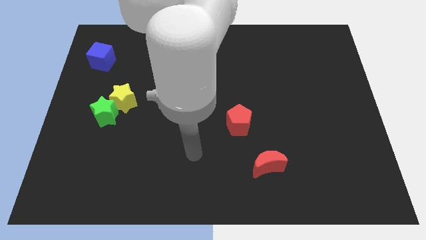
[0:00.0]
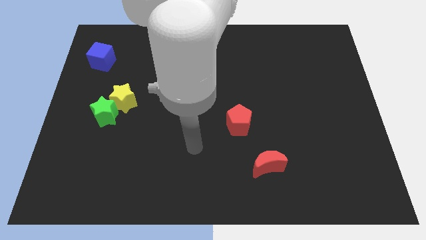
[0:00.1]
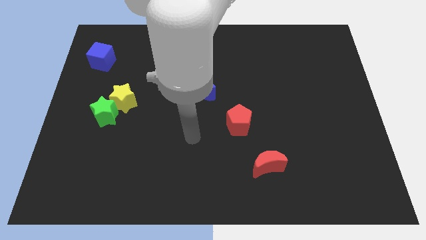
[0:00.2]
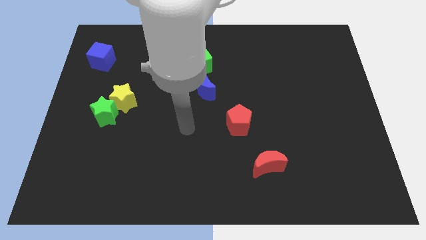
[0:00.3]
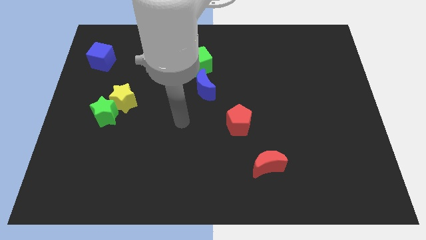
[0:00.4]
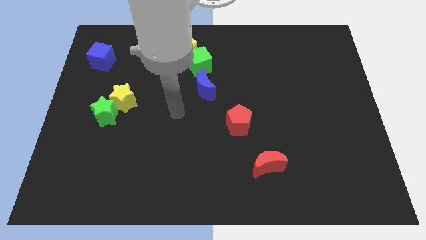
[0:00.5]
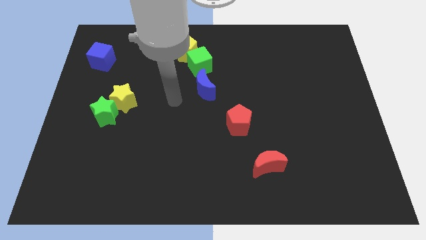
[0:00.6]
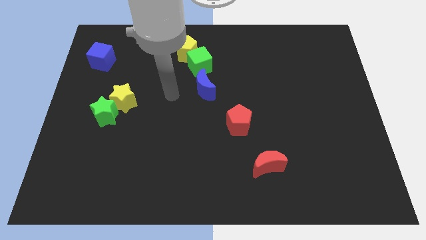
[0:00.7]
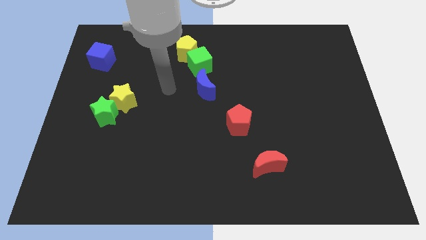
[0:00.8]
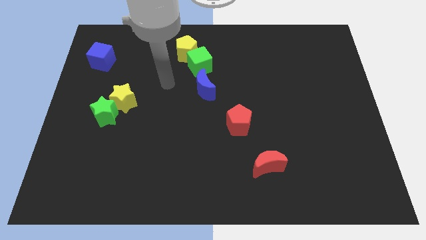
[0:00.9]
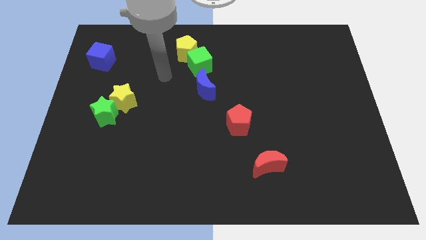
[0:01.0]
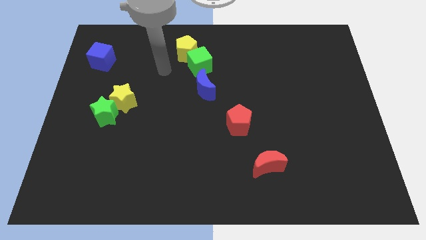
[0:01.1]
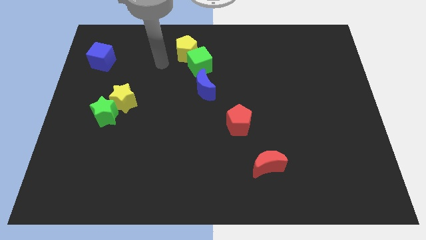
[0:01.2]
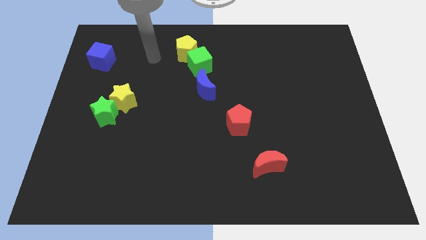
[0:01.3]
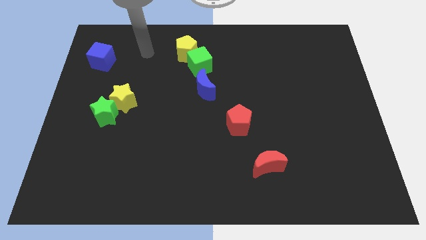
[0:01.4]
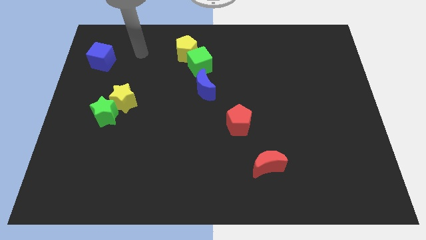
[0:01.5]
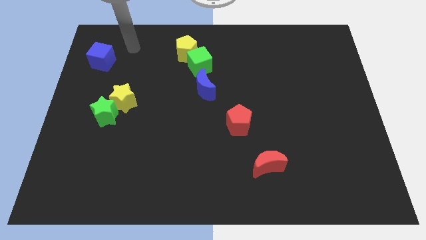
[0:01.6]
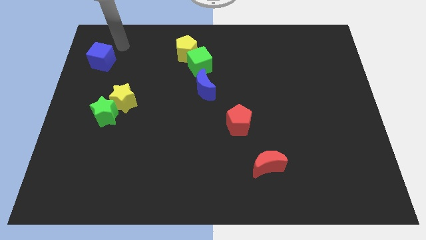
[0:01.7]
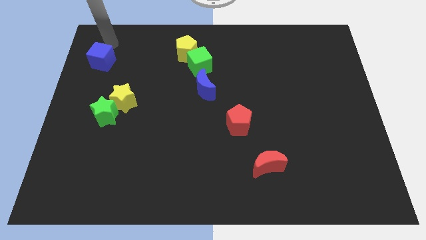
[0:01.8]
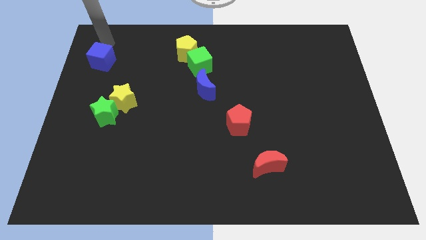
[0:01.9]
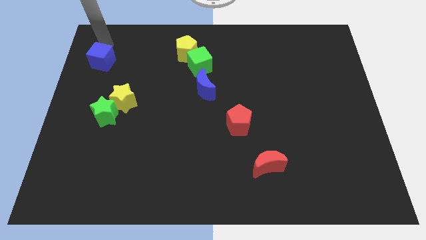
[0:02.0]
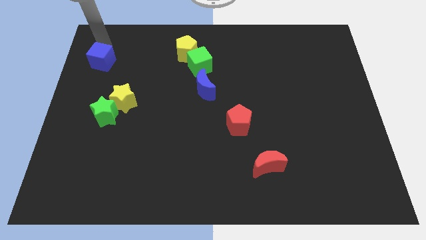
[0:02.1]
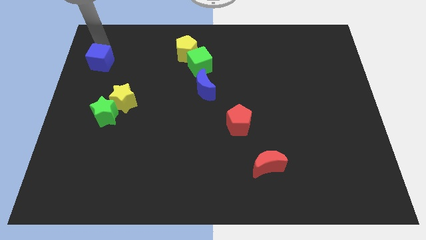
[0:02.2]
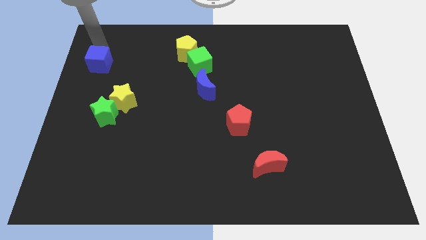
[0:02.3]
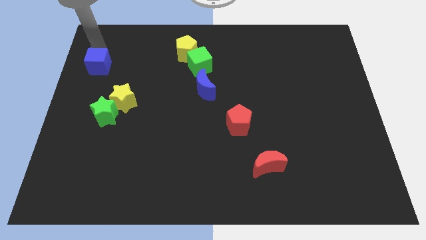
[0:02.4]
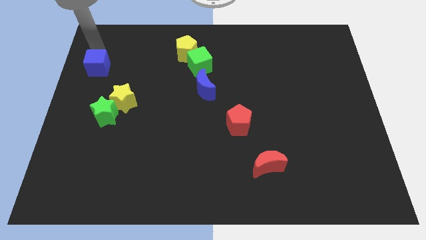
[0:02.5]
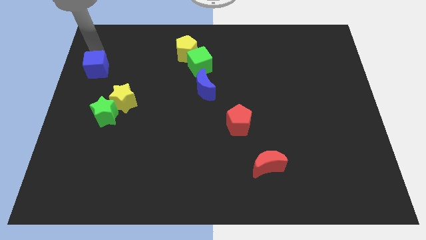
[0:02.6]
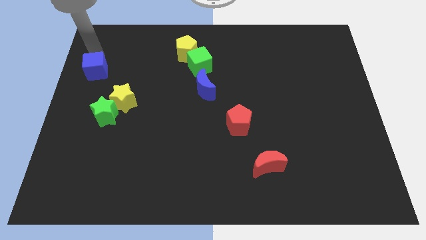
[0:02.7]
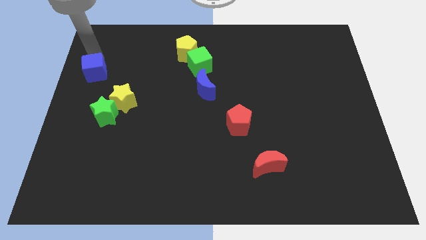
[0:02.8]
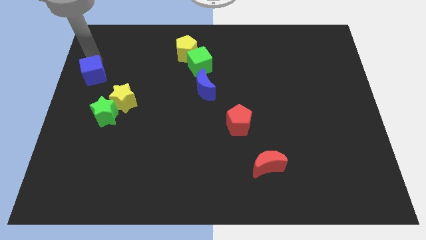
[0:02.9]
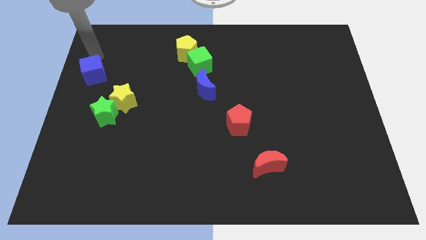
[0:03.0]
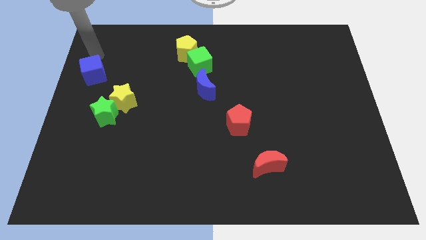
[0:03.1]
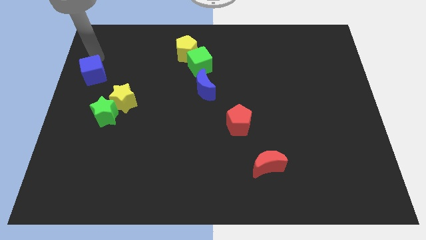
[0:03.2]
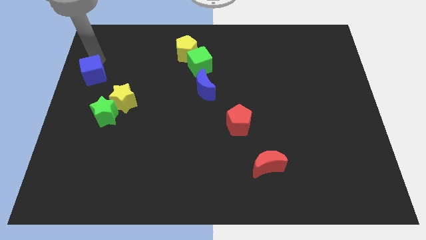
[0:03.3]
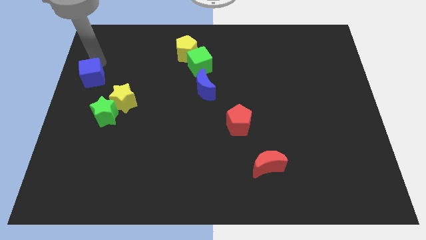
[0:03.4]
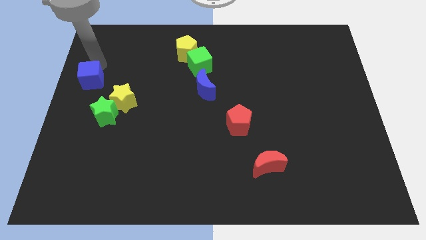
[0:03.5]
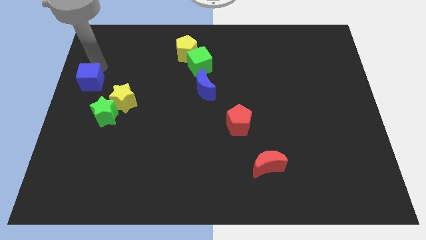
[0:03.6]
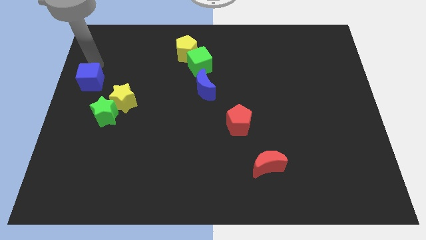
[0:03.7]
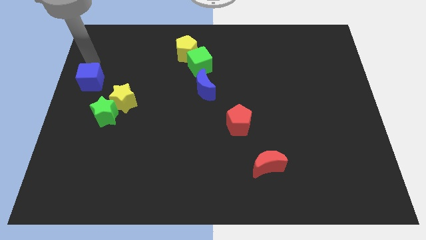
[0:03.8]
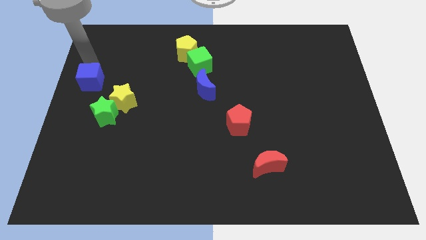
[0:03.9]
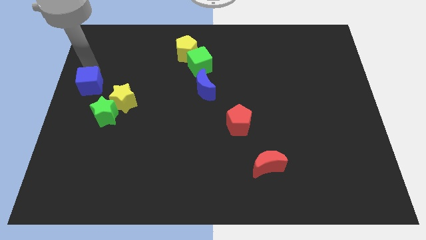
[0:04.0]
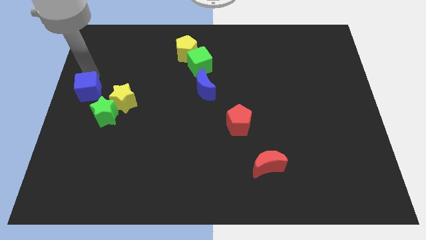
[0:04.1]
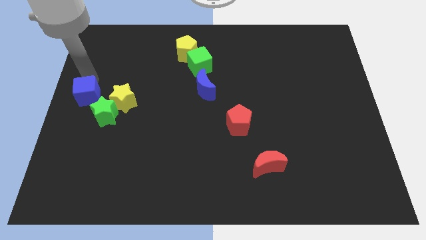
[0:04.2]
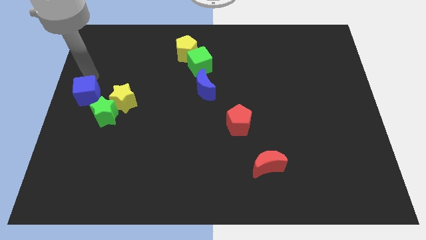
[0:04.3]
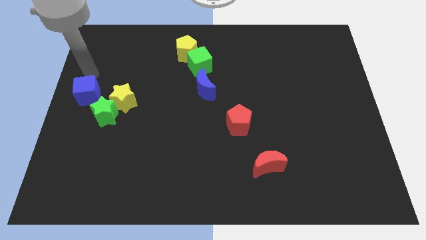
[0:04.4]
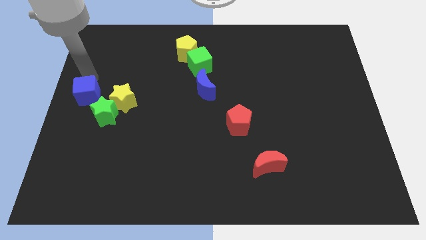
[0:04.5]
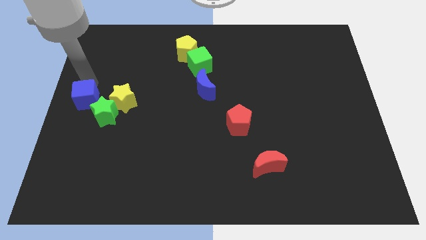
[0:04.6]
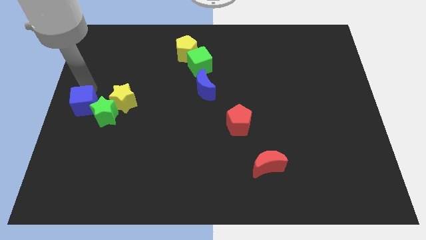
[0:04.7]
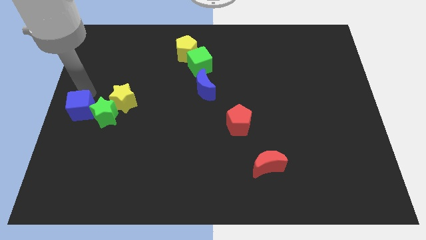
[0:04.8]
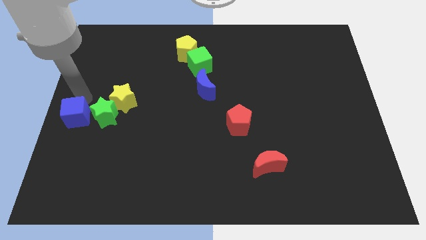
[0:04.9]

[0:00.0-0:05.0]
put the blue cube diagonally down and to the left of the yellow star

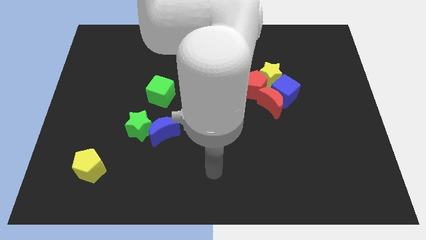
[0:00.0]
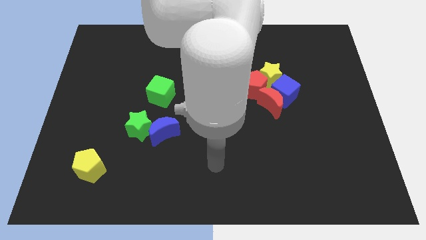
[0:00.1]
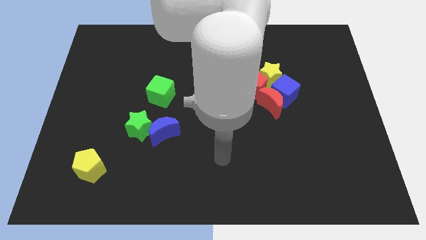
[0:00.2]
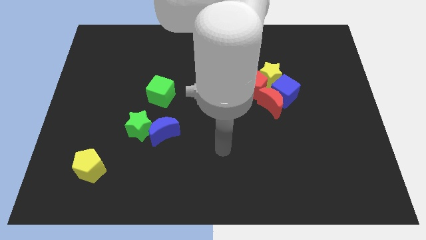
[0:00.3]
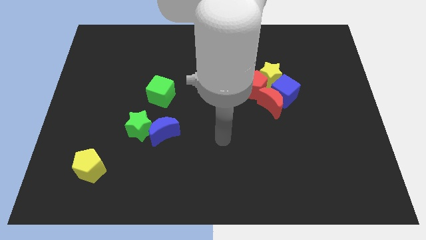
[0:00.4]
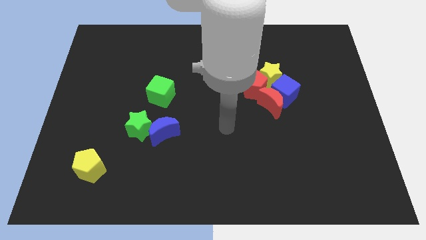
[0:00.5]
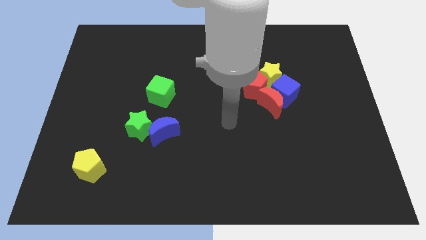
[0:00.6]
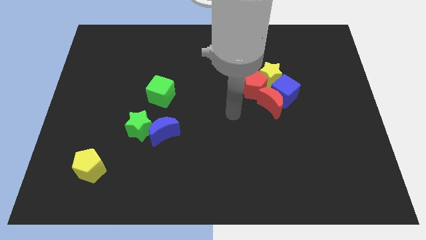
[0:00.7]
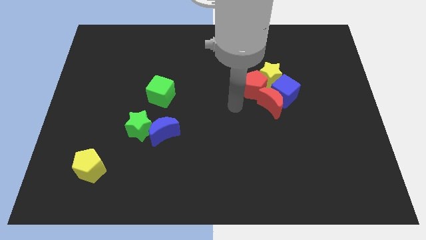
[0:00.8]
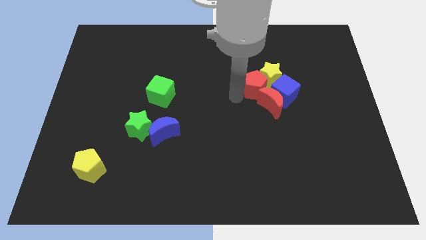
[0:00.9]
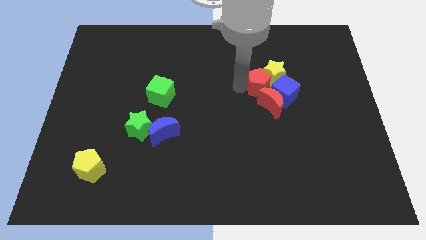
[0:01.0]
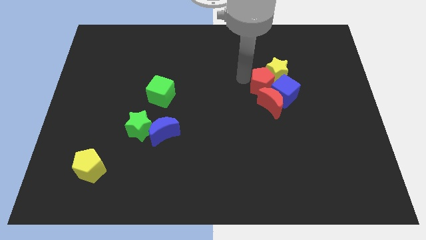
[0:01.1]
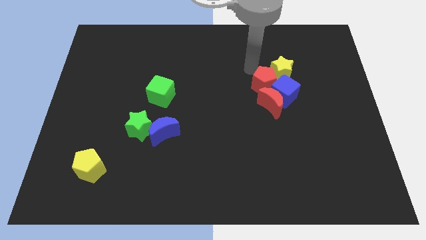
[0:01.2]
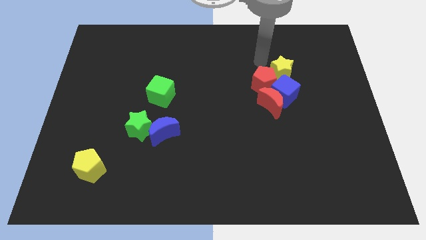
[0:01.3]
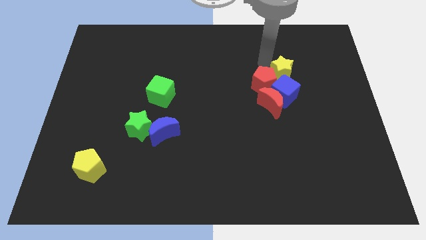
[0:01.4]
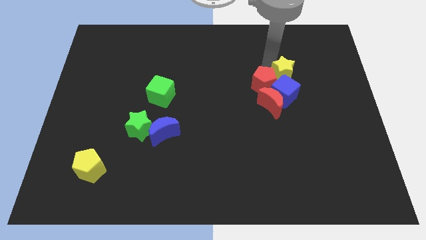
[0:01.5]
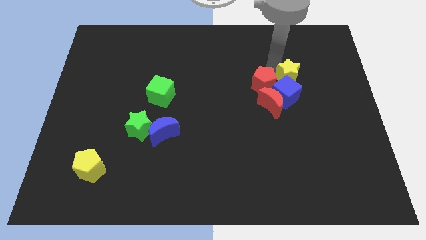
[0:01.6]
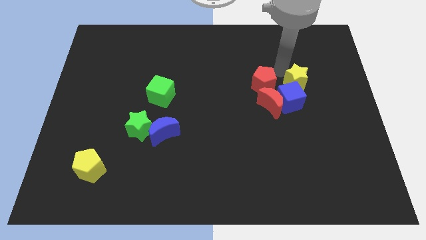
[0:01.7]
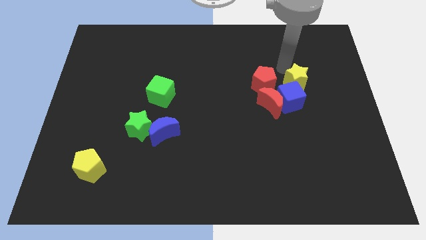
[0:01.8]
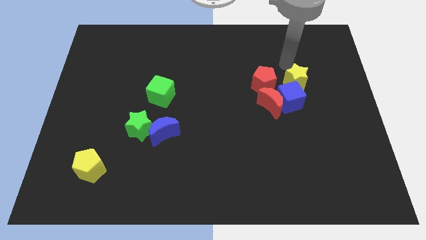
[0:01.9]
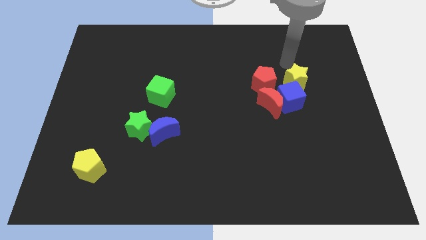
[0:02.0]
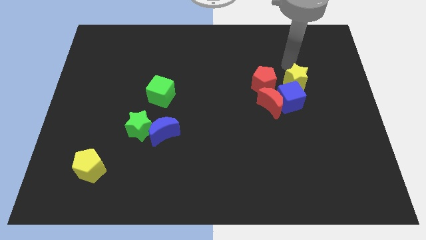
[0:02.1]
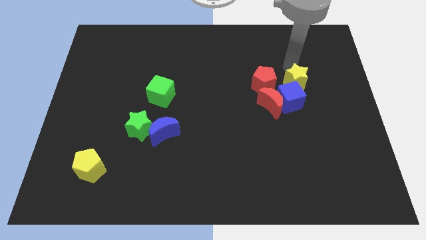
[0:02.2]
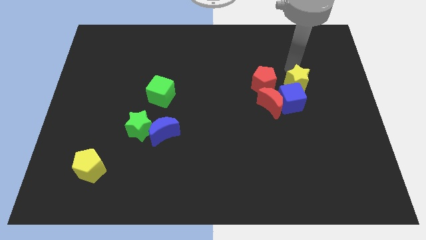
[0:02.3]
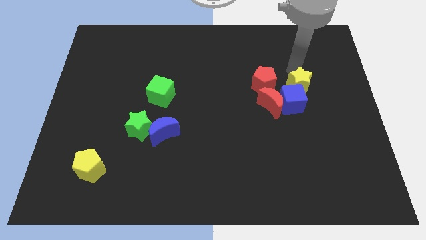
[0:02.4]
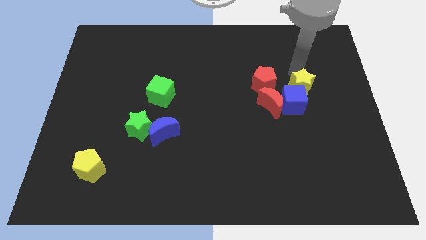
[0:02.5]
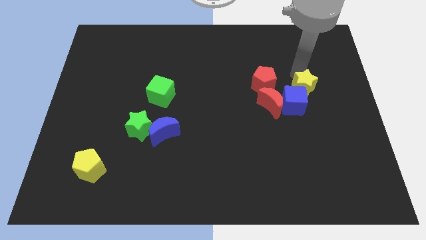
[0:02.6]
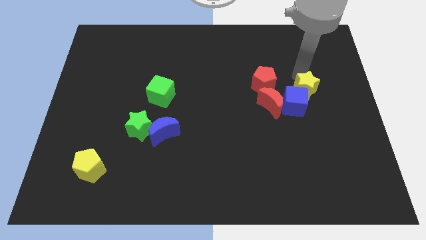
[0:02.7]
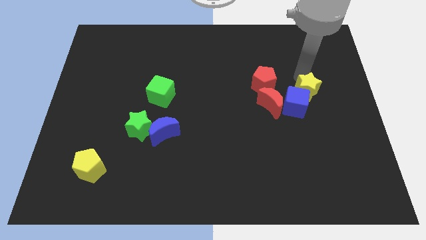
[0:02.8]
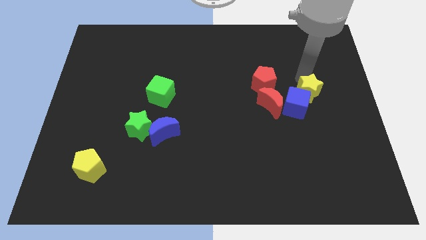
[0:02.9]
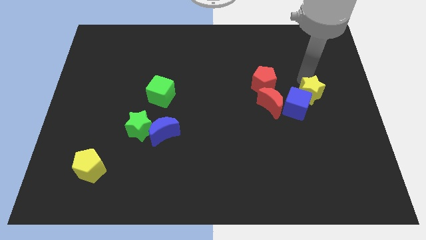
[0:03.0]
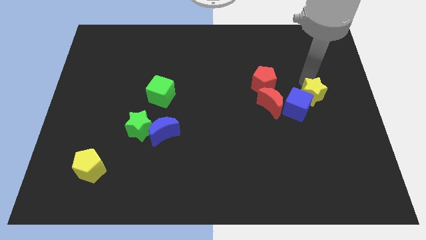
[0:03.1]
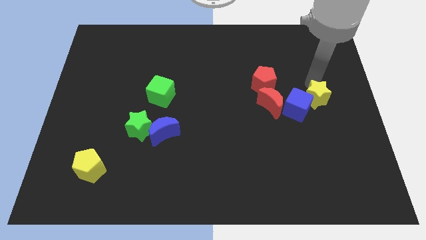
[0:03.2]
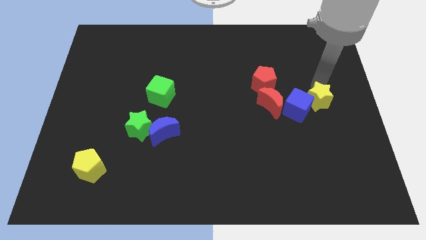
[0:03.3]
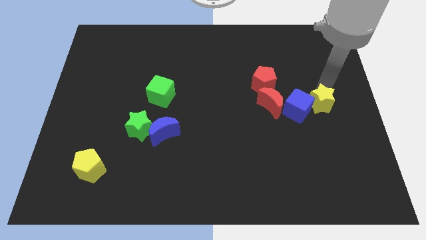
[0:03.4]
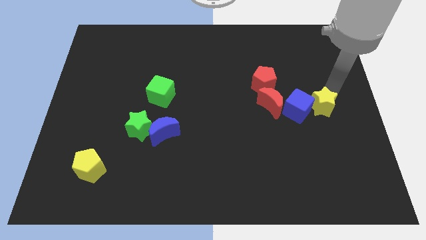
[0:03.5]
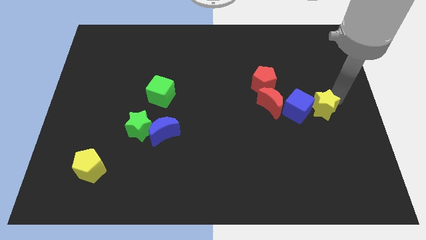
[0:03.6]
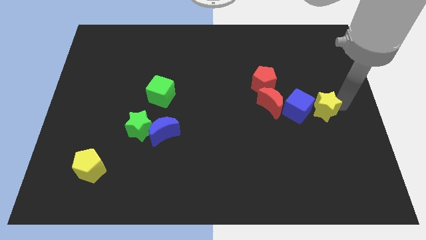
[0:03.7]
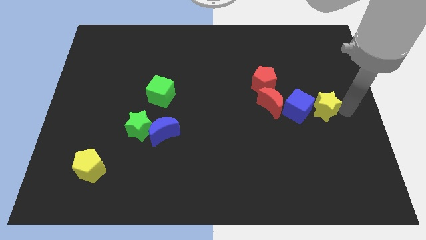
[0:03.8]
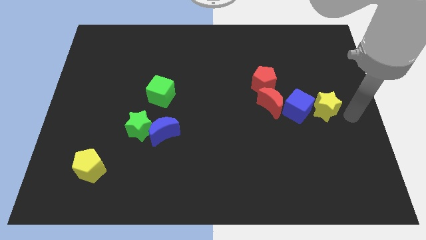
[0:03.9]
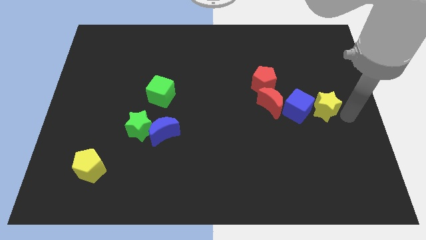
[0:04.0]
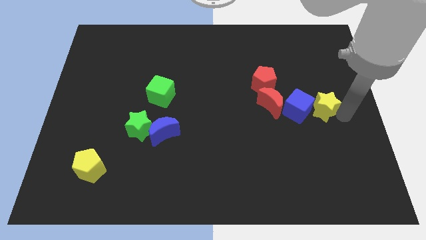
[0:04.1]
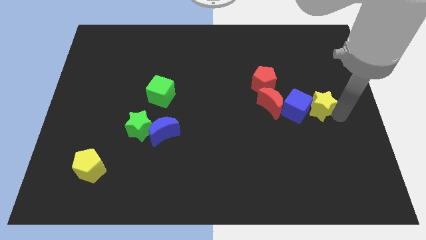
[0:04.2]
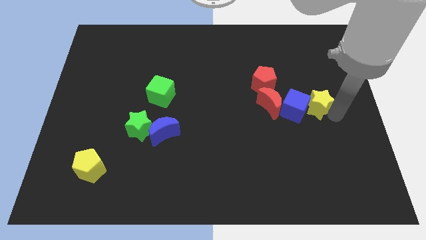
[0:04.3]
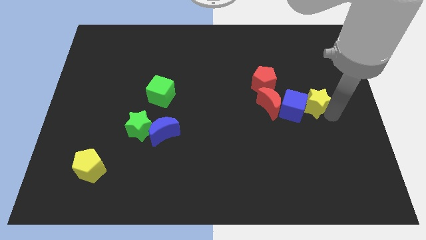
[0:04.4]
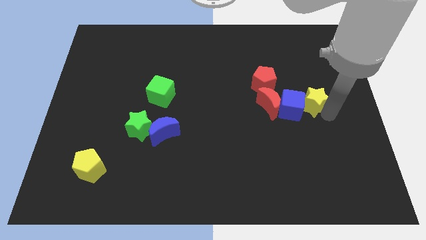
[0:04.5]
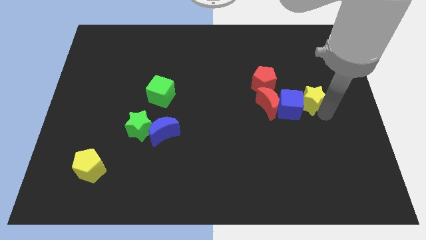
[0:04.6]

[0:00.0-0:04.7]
slide the yellow star to the bottom right of the red pentagon
